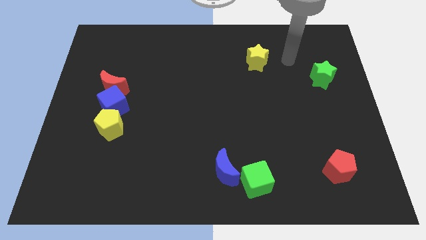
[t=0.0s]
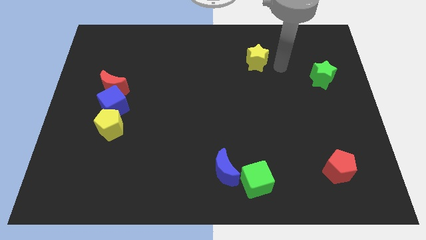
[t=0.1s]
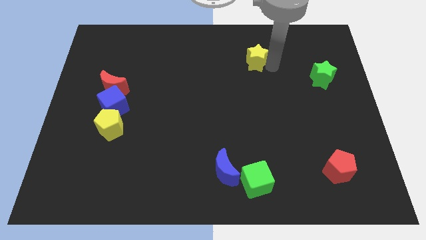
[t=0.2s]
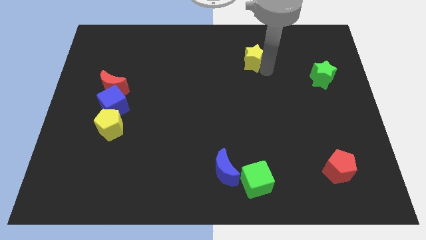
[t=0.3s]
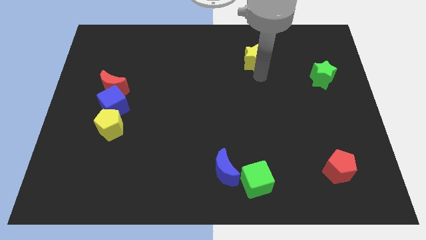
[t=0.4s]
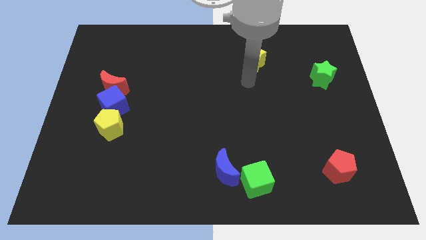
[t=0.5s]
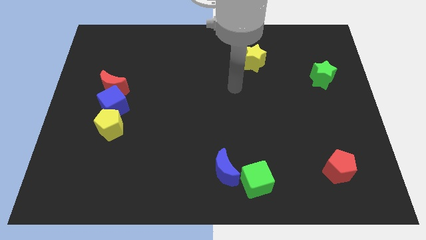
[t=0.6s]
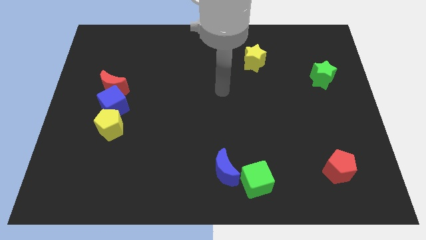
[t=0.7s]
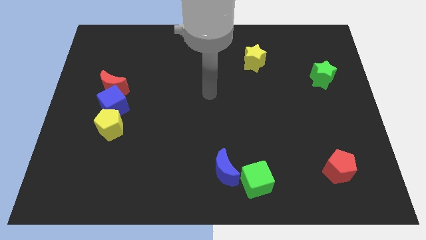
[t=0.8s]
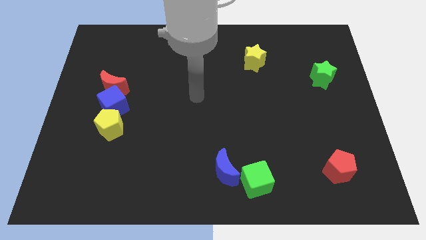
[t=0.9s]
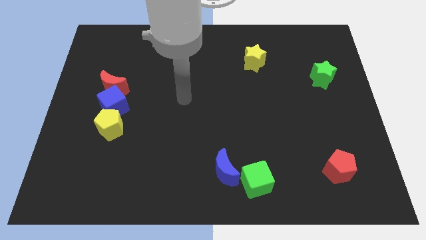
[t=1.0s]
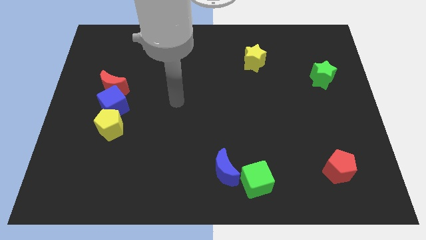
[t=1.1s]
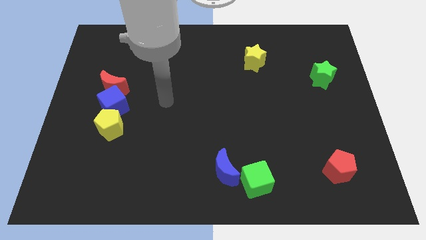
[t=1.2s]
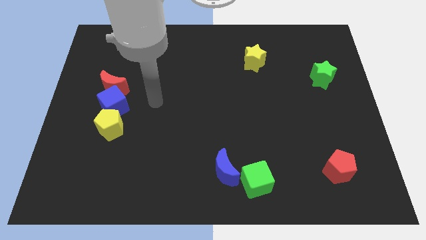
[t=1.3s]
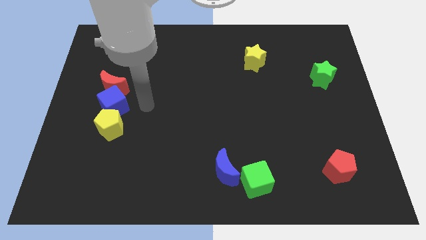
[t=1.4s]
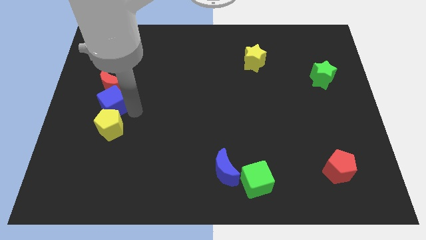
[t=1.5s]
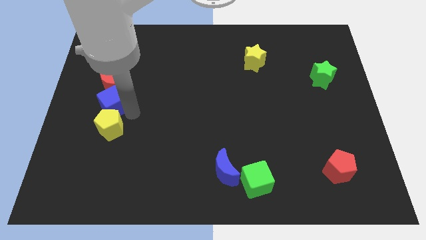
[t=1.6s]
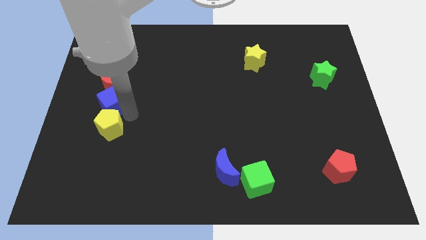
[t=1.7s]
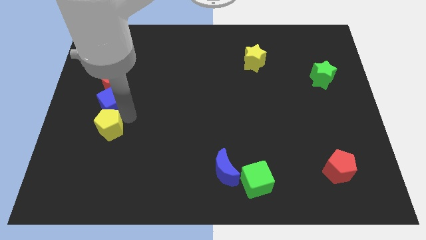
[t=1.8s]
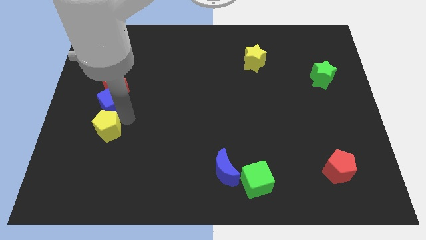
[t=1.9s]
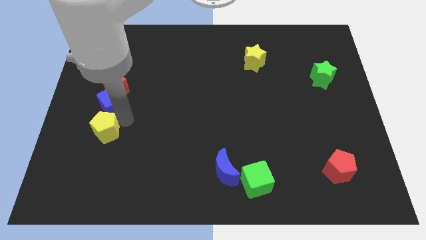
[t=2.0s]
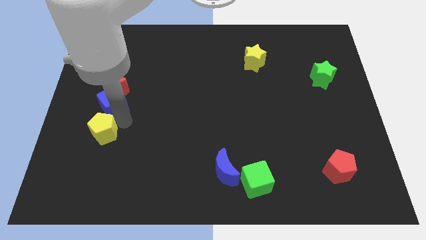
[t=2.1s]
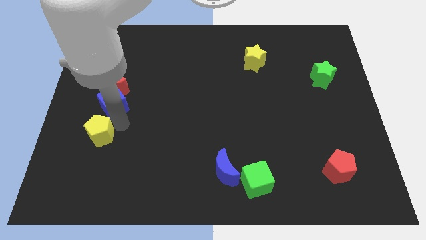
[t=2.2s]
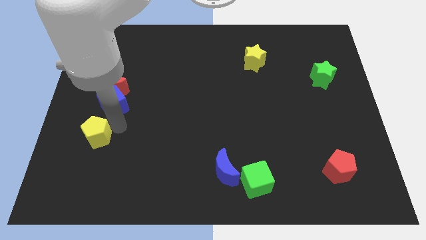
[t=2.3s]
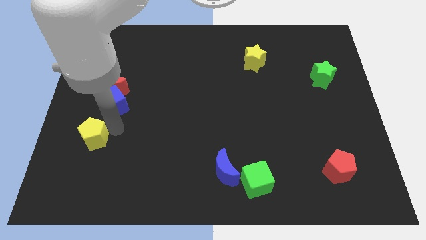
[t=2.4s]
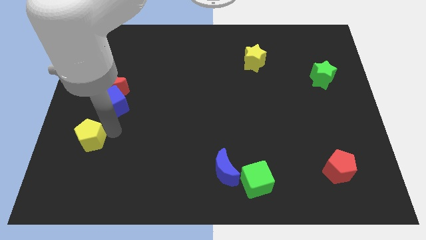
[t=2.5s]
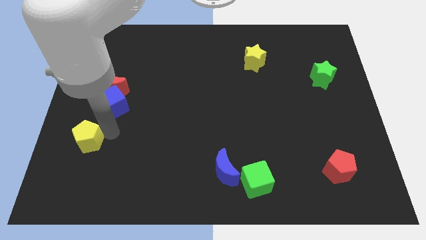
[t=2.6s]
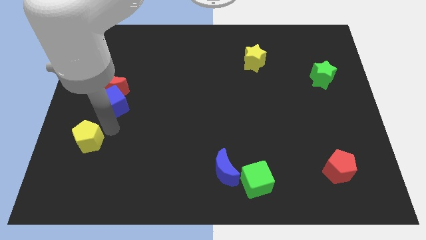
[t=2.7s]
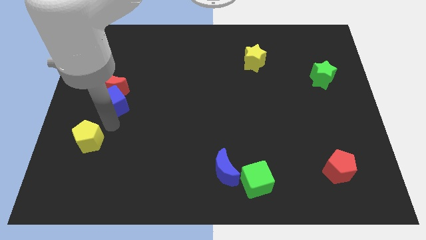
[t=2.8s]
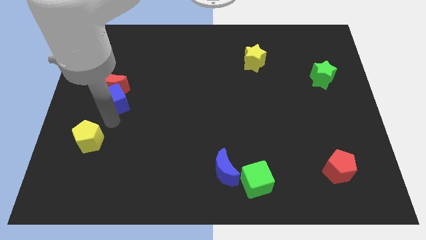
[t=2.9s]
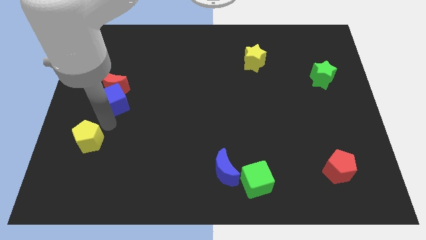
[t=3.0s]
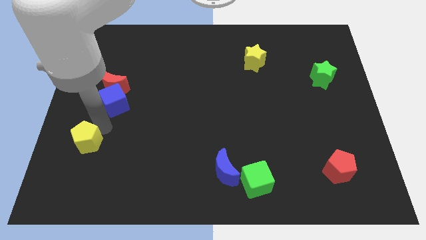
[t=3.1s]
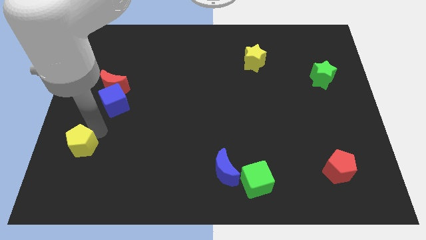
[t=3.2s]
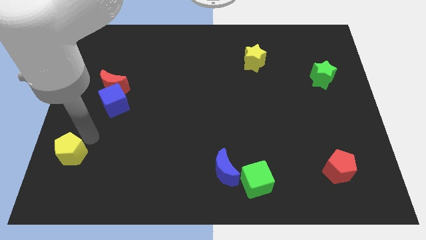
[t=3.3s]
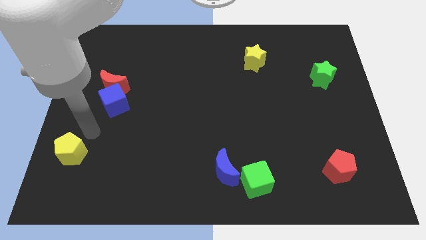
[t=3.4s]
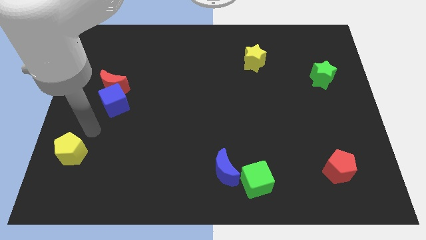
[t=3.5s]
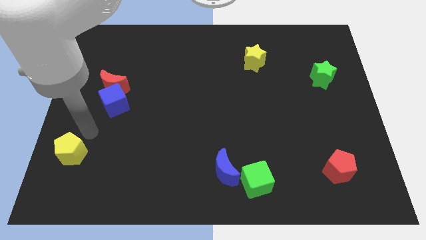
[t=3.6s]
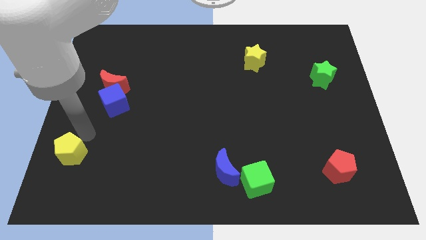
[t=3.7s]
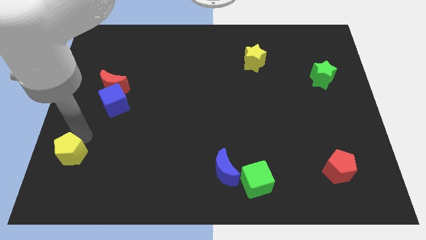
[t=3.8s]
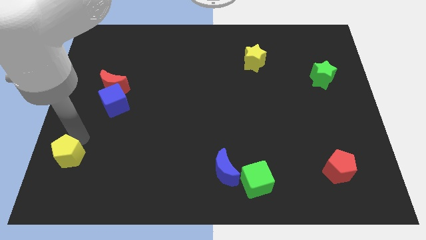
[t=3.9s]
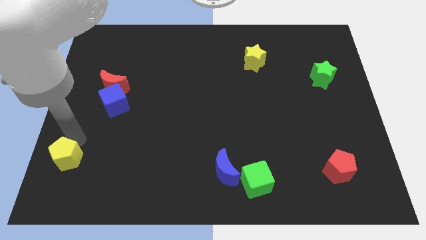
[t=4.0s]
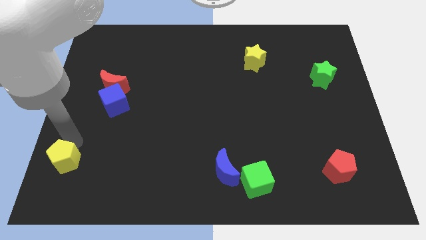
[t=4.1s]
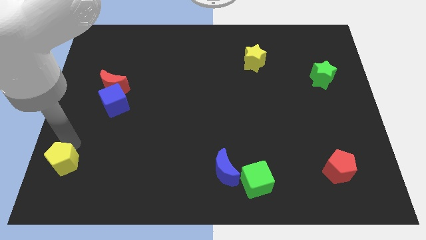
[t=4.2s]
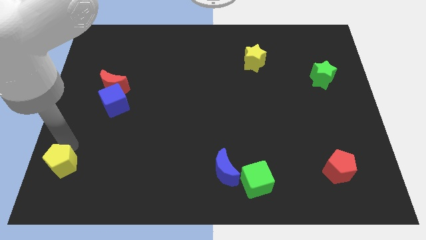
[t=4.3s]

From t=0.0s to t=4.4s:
push the yellow pentagon to the bottom left of the board

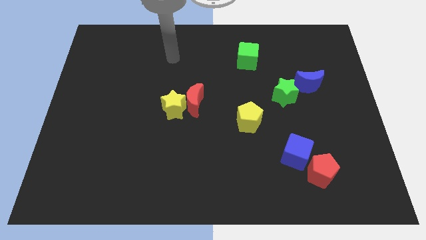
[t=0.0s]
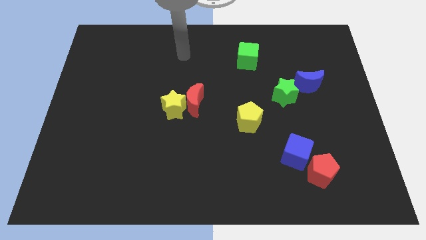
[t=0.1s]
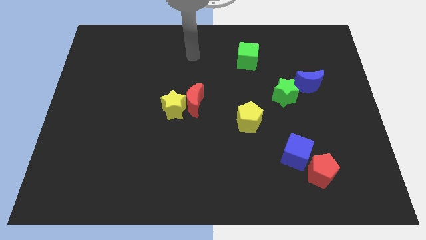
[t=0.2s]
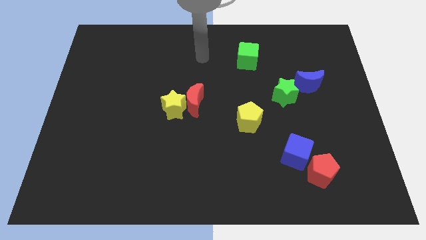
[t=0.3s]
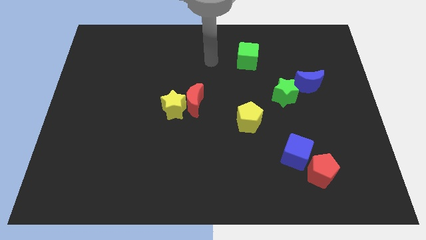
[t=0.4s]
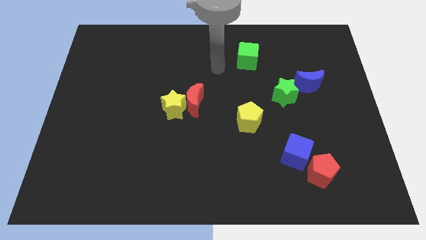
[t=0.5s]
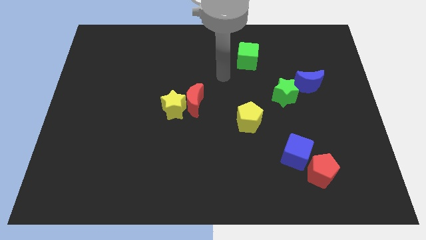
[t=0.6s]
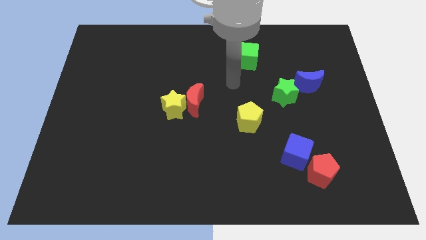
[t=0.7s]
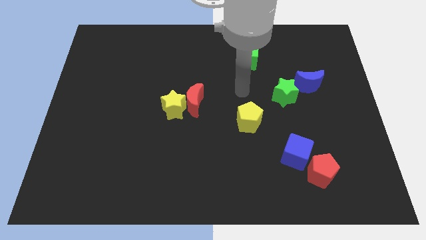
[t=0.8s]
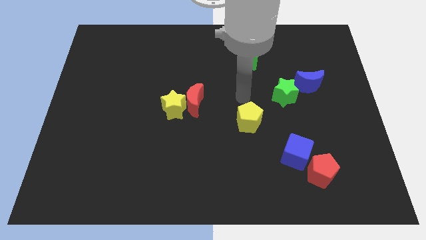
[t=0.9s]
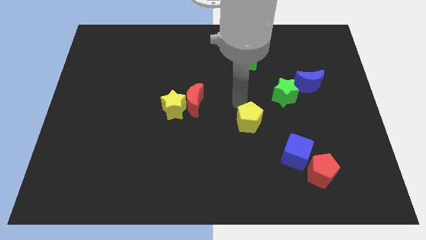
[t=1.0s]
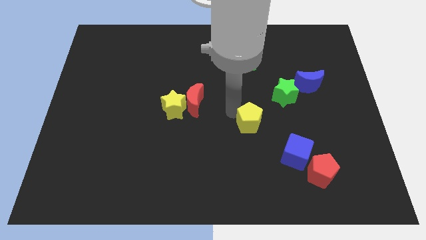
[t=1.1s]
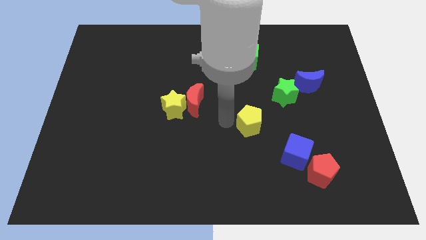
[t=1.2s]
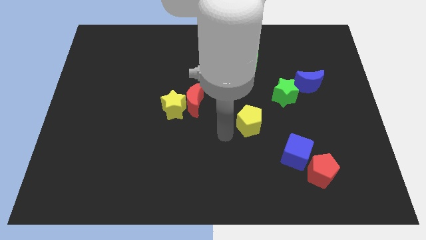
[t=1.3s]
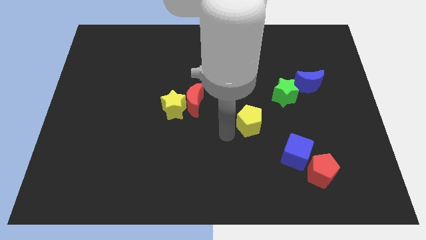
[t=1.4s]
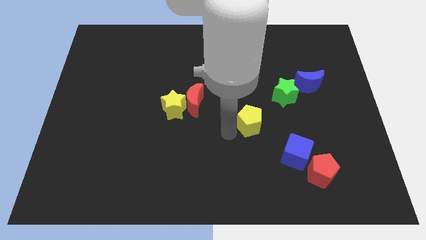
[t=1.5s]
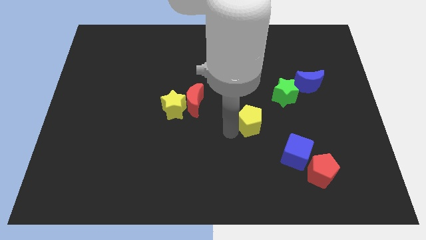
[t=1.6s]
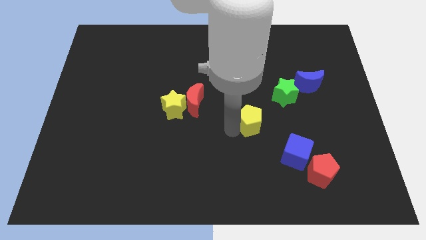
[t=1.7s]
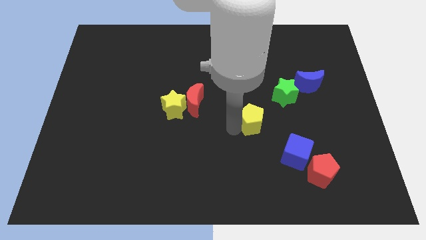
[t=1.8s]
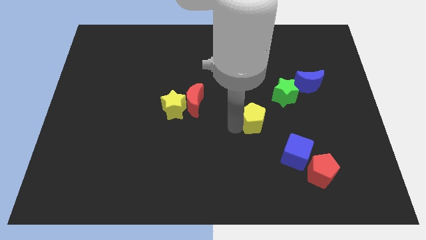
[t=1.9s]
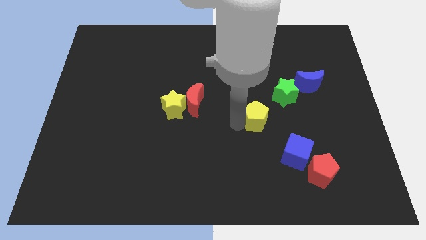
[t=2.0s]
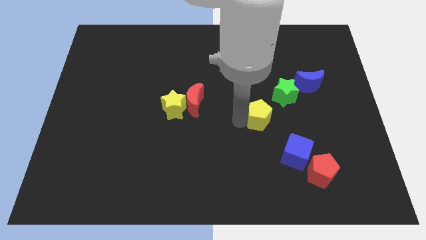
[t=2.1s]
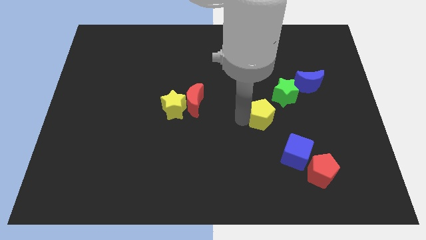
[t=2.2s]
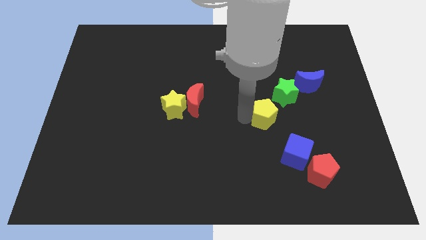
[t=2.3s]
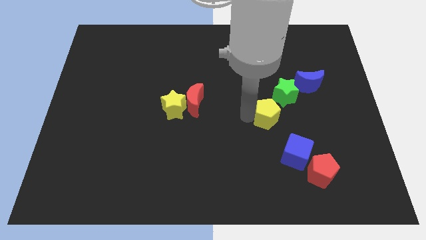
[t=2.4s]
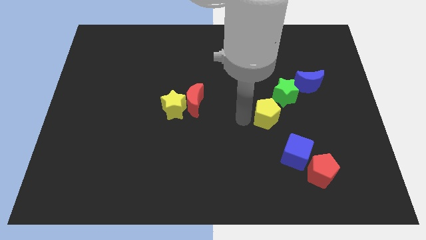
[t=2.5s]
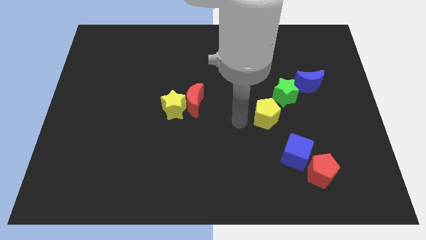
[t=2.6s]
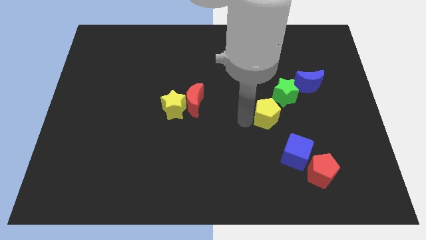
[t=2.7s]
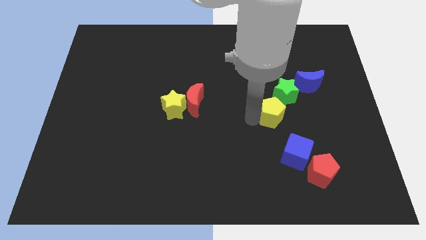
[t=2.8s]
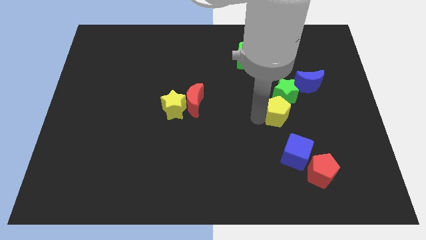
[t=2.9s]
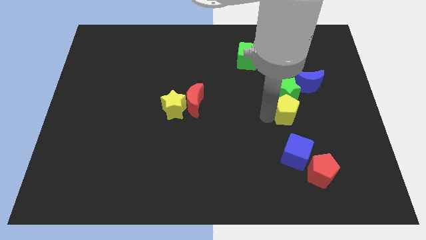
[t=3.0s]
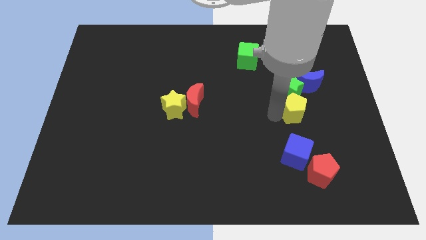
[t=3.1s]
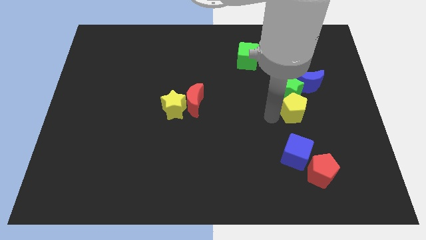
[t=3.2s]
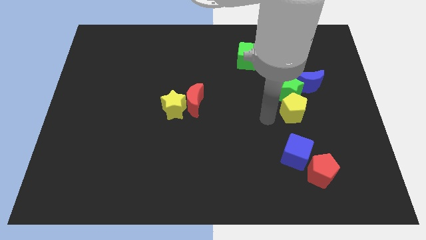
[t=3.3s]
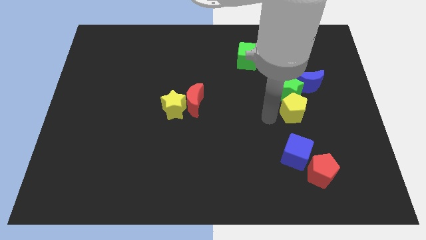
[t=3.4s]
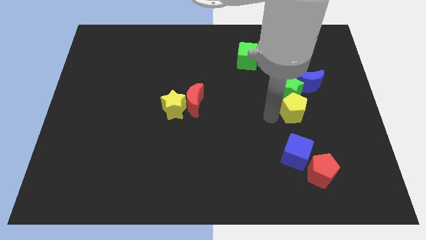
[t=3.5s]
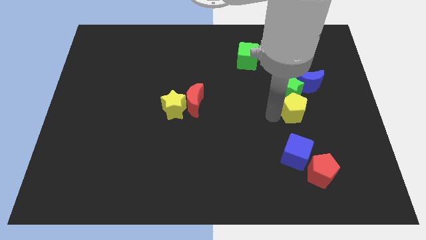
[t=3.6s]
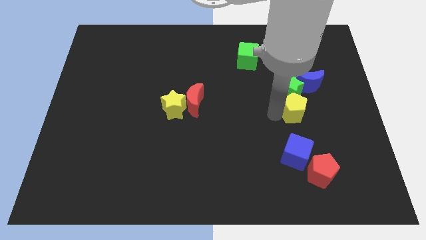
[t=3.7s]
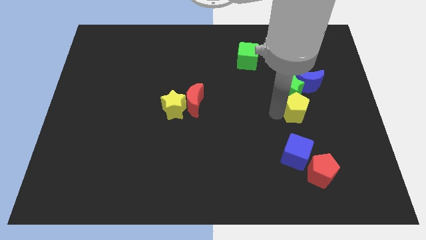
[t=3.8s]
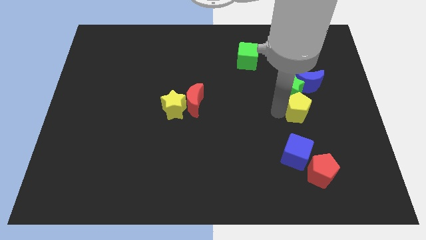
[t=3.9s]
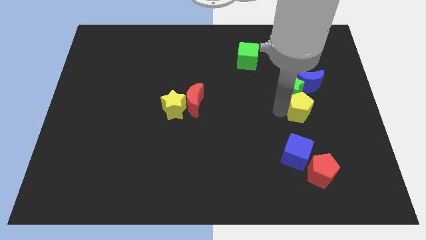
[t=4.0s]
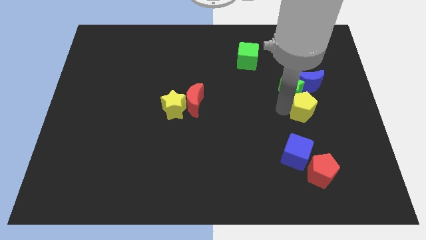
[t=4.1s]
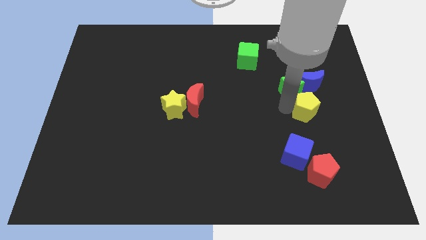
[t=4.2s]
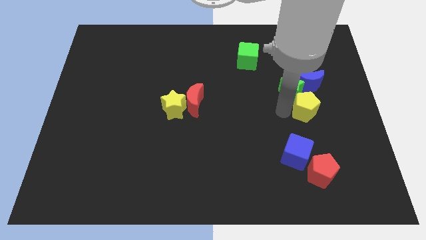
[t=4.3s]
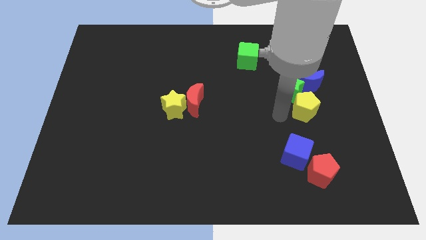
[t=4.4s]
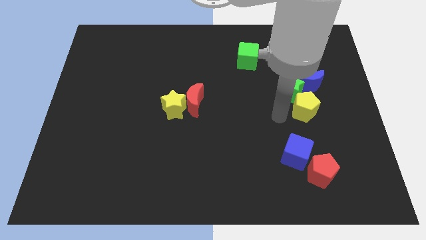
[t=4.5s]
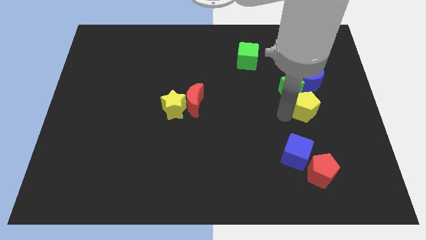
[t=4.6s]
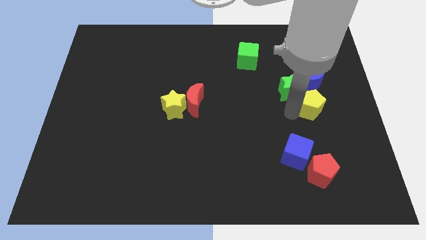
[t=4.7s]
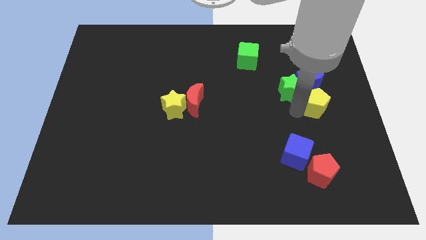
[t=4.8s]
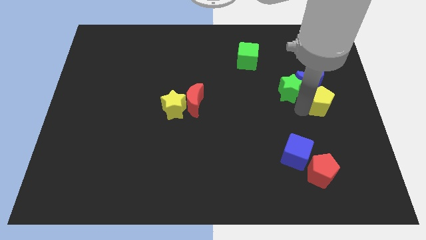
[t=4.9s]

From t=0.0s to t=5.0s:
slide the yellow pentagon to the right side
